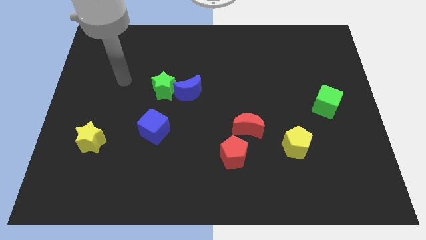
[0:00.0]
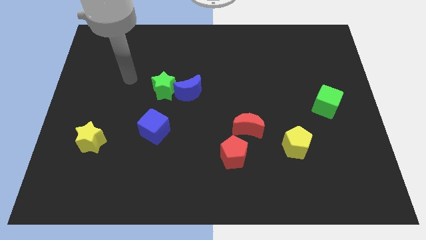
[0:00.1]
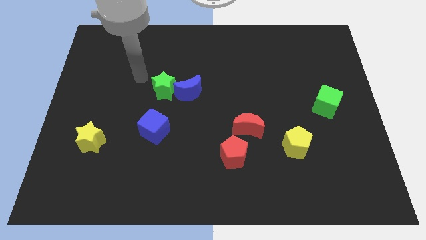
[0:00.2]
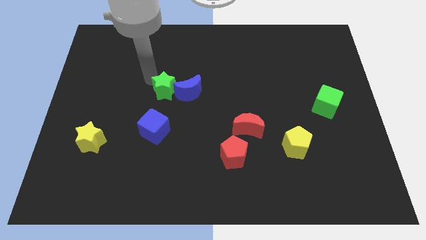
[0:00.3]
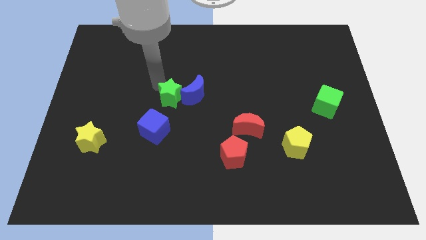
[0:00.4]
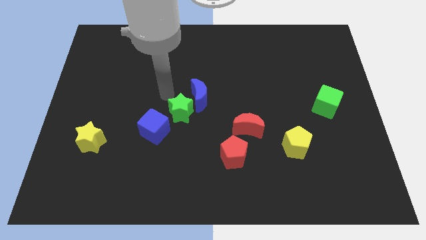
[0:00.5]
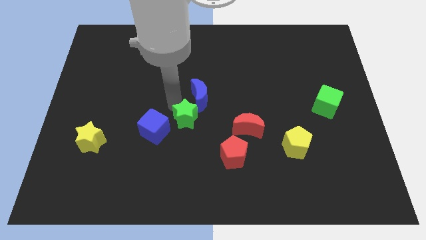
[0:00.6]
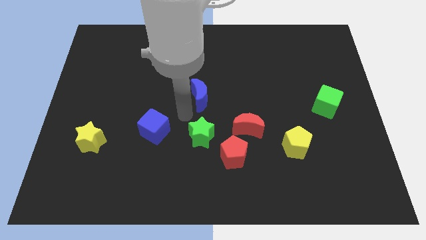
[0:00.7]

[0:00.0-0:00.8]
move the blue moon away from the green star

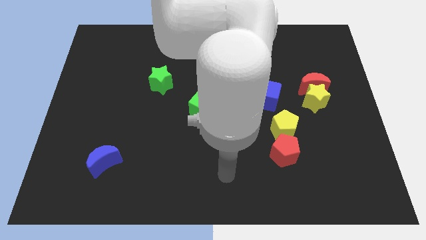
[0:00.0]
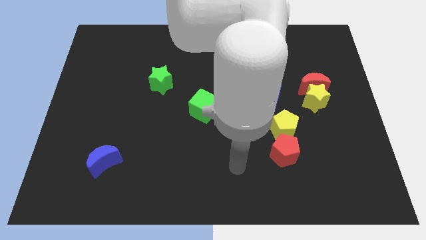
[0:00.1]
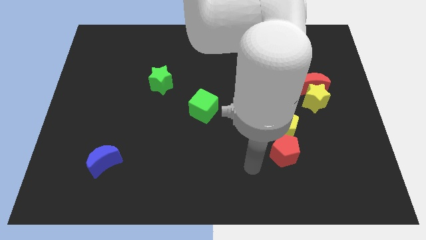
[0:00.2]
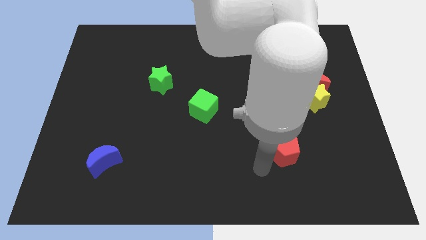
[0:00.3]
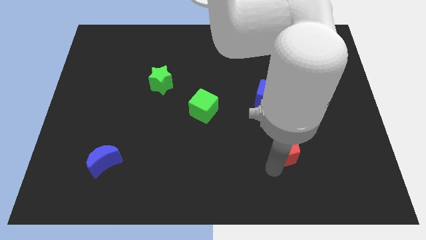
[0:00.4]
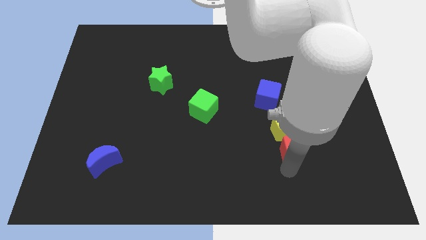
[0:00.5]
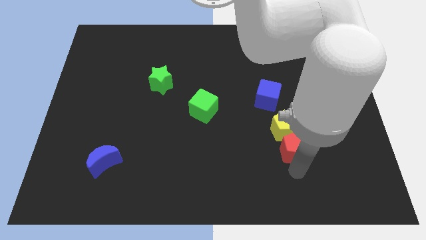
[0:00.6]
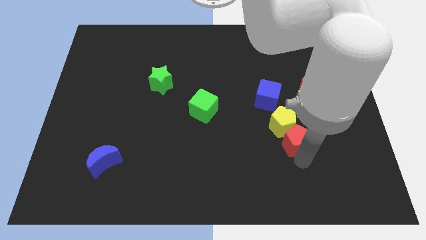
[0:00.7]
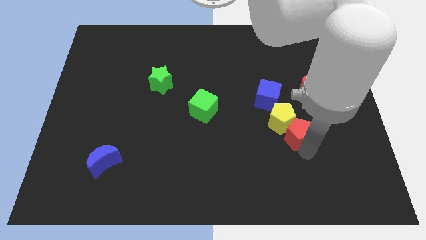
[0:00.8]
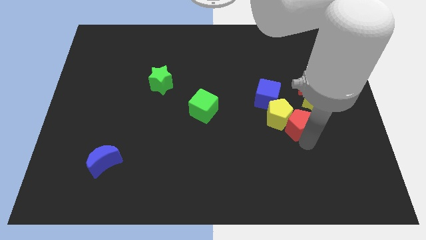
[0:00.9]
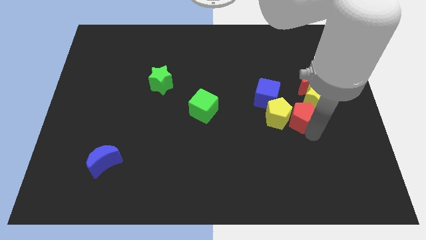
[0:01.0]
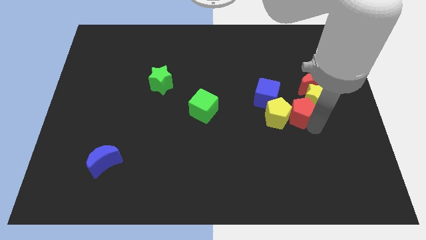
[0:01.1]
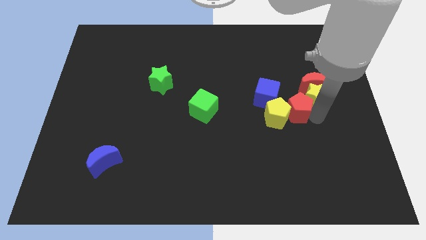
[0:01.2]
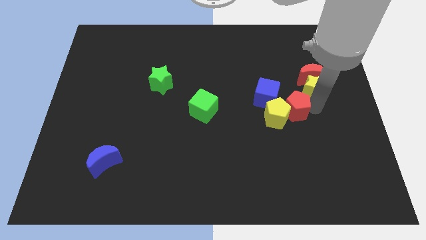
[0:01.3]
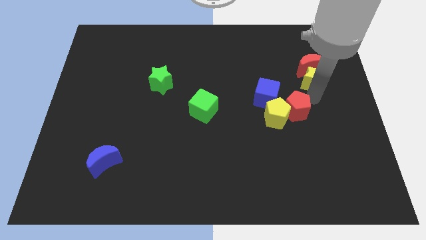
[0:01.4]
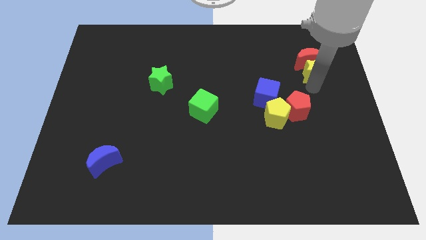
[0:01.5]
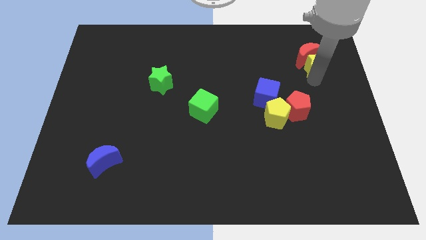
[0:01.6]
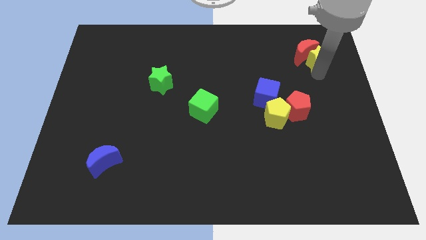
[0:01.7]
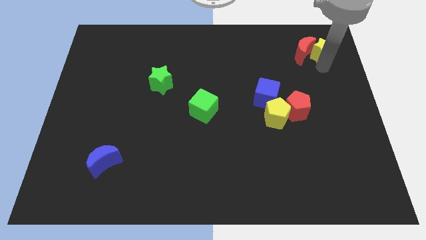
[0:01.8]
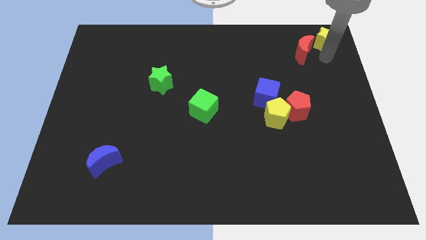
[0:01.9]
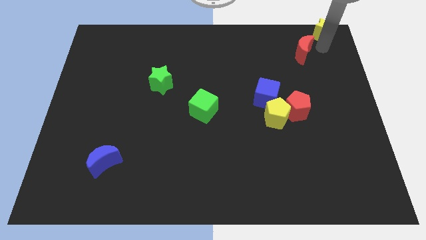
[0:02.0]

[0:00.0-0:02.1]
pull the red moon apart from the yellow star

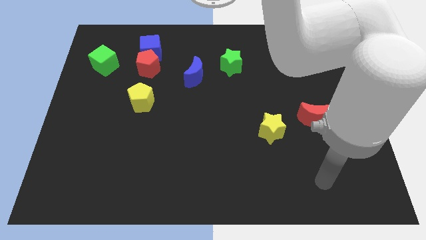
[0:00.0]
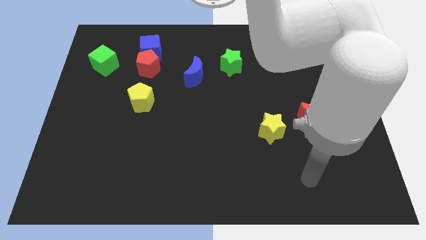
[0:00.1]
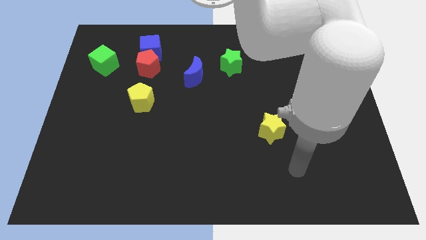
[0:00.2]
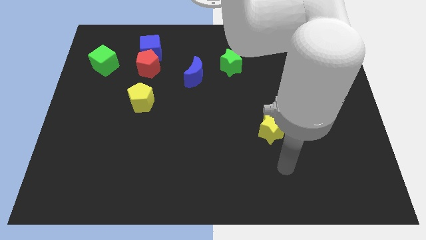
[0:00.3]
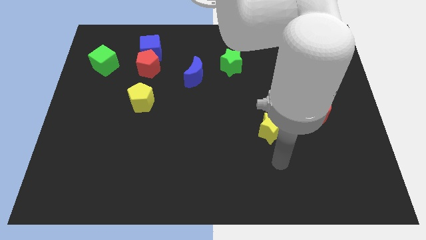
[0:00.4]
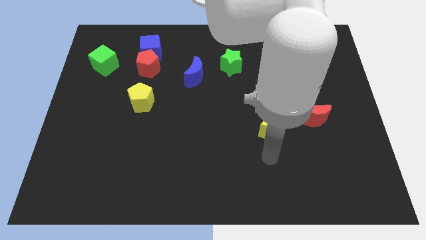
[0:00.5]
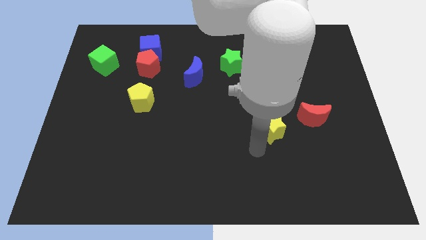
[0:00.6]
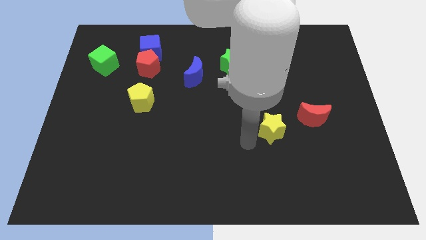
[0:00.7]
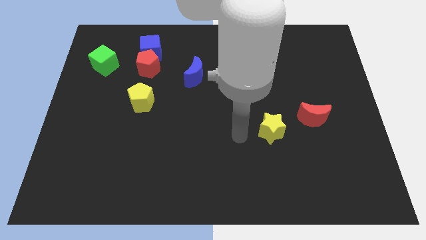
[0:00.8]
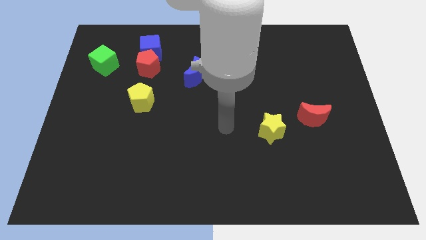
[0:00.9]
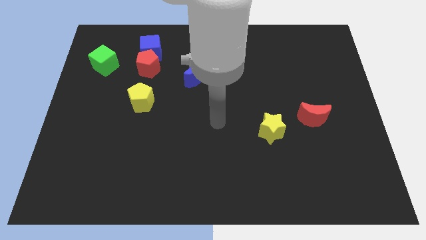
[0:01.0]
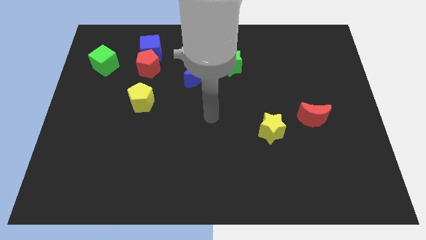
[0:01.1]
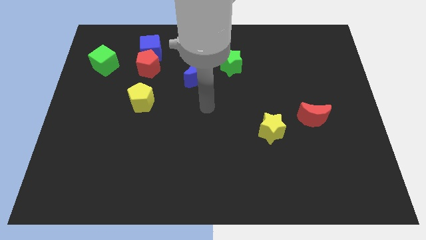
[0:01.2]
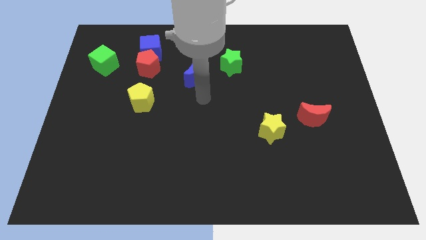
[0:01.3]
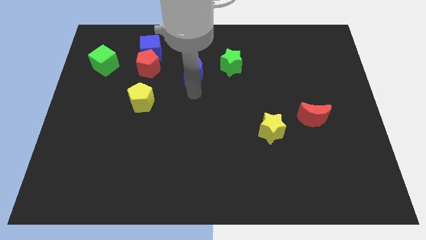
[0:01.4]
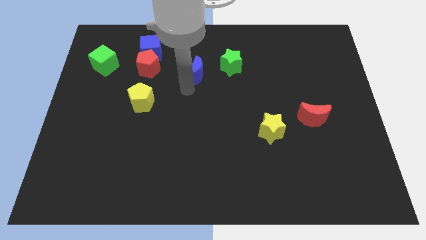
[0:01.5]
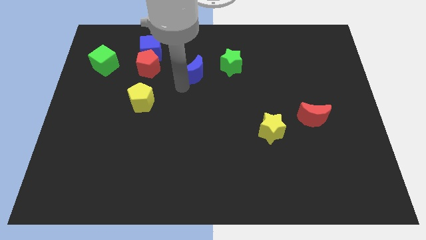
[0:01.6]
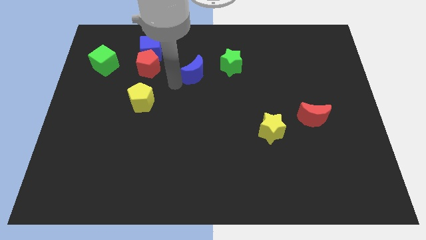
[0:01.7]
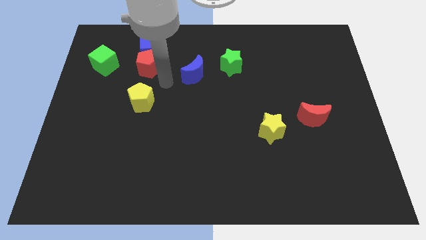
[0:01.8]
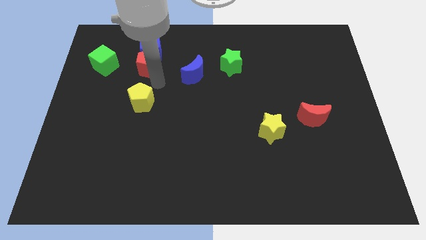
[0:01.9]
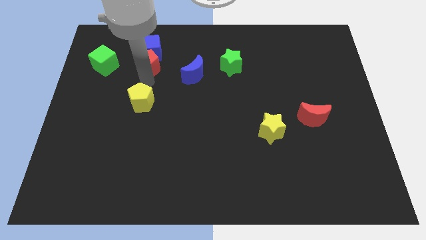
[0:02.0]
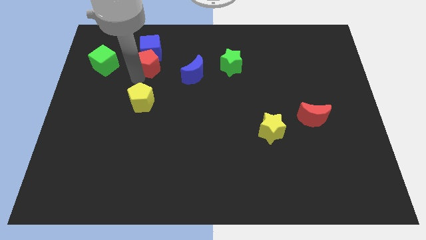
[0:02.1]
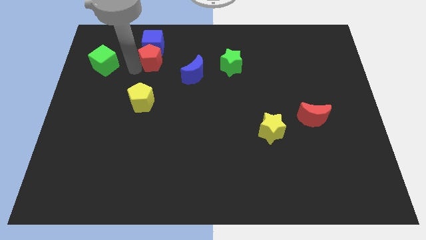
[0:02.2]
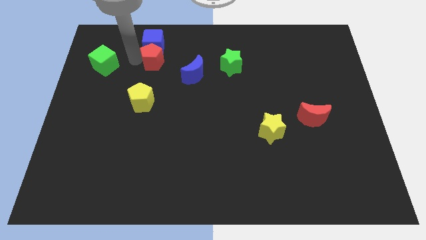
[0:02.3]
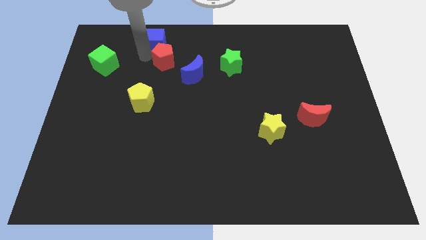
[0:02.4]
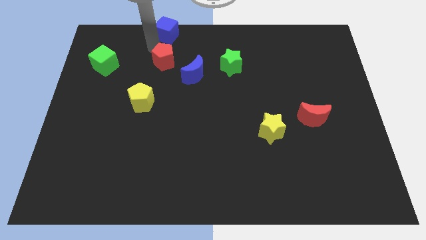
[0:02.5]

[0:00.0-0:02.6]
pull the red pentagon apart from the blue cube

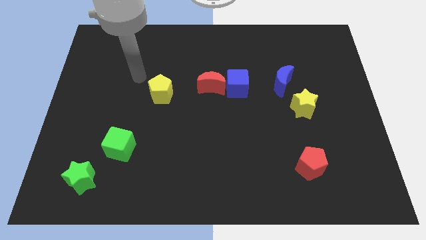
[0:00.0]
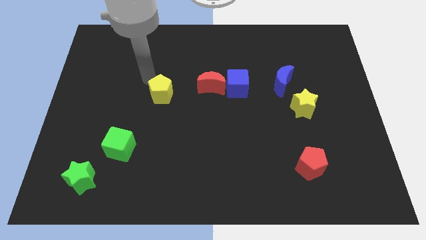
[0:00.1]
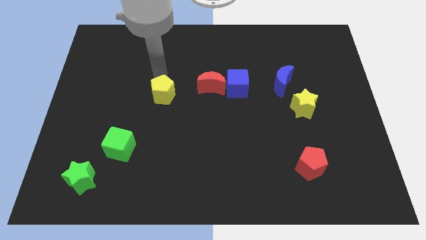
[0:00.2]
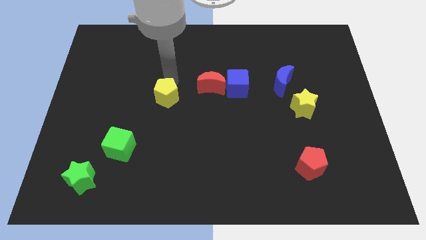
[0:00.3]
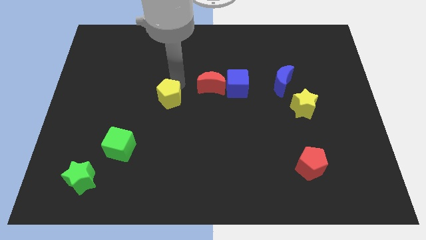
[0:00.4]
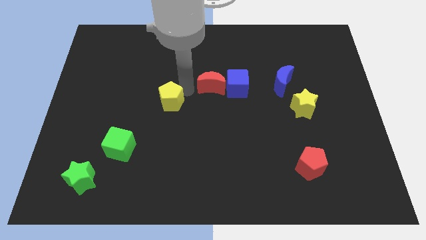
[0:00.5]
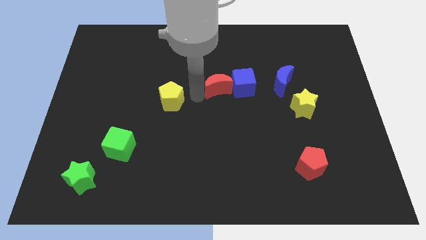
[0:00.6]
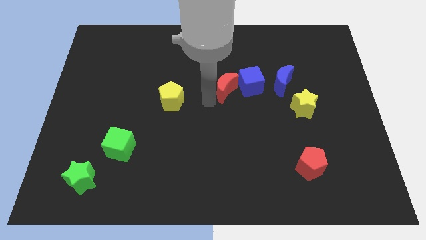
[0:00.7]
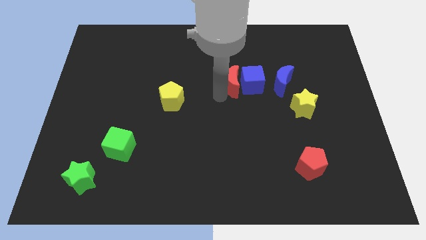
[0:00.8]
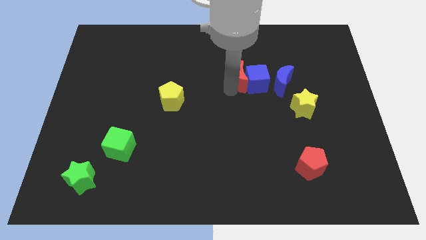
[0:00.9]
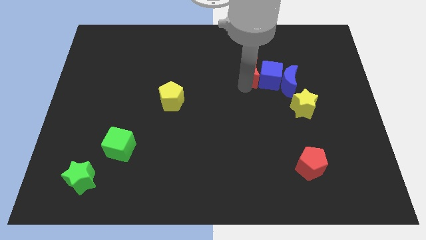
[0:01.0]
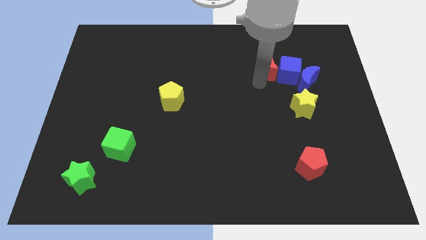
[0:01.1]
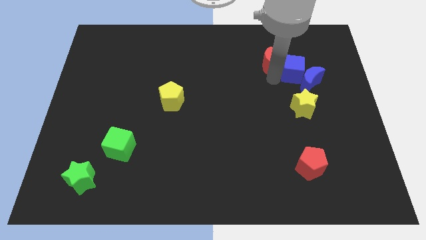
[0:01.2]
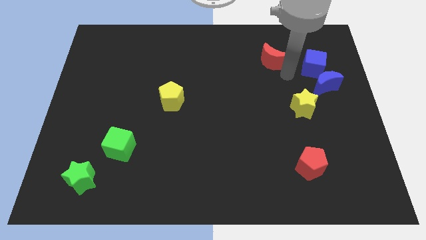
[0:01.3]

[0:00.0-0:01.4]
pull the red moon apart from the blue cube

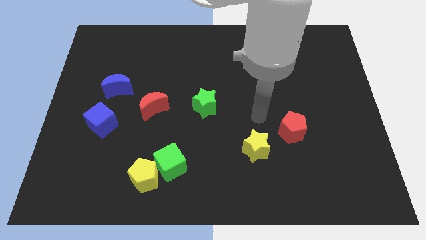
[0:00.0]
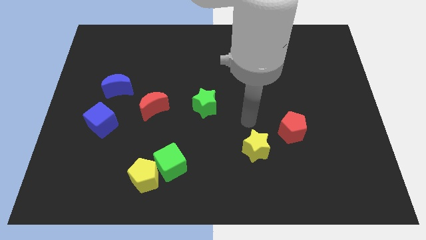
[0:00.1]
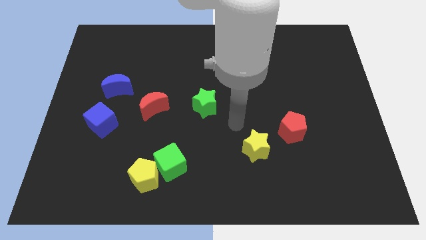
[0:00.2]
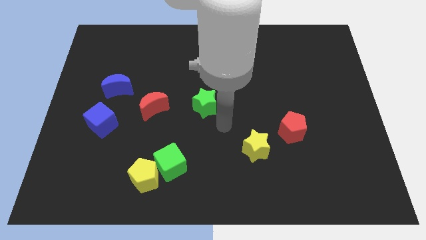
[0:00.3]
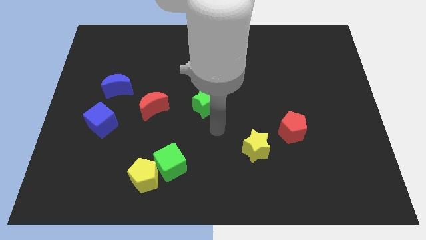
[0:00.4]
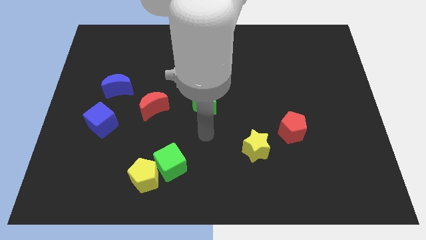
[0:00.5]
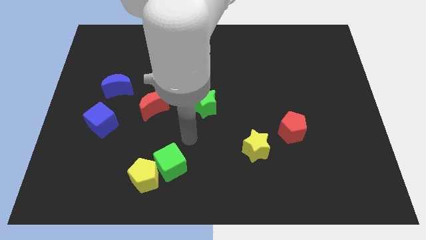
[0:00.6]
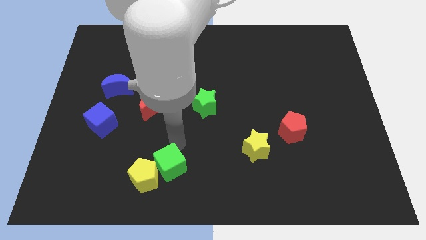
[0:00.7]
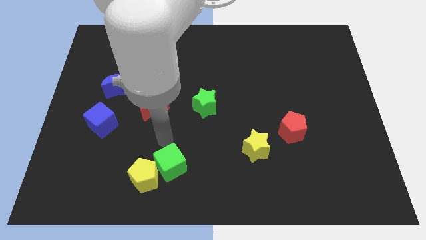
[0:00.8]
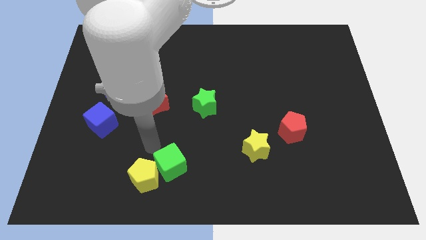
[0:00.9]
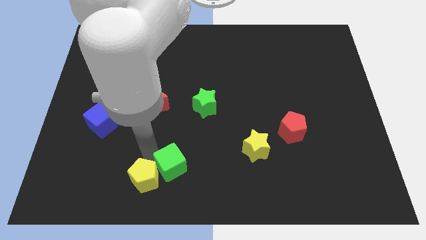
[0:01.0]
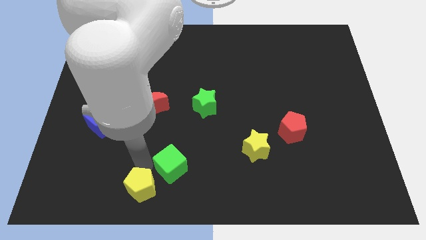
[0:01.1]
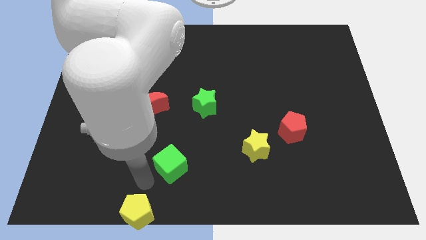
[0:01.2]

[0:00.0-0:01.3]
pull the green cube apart from the yellow pentagon

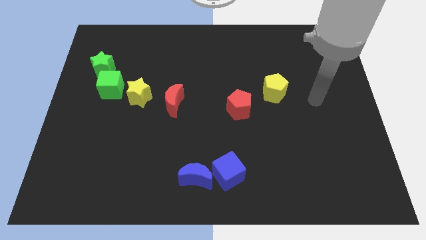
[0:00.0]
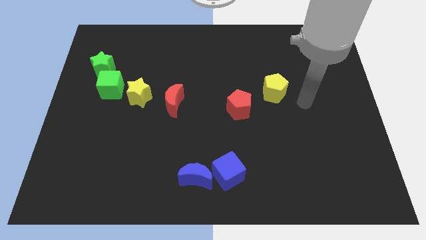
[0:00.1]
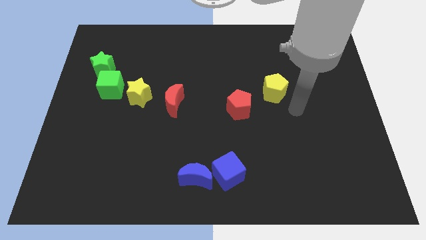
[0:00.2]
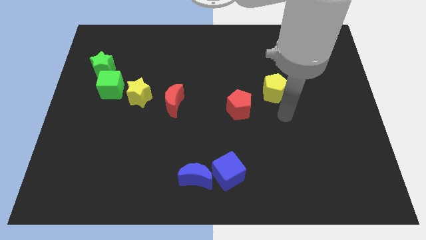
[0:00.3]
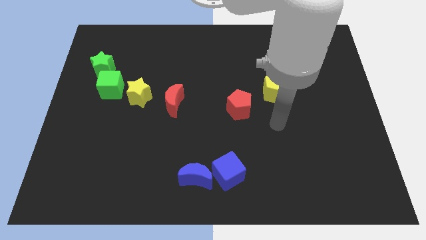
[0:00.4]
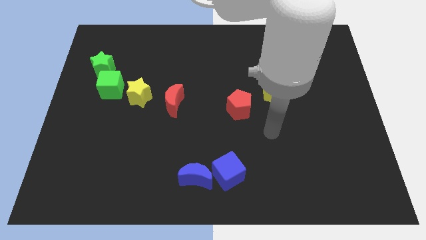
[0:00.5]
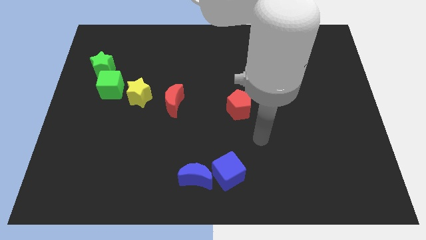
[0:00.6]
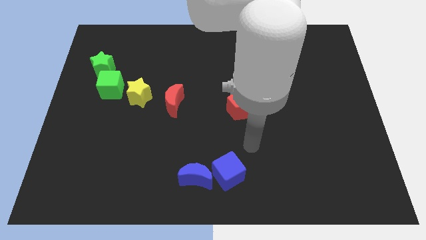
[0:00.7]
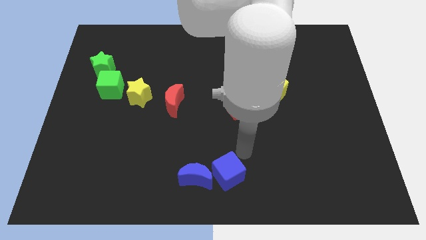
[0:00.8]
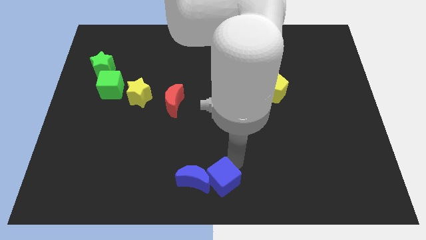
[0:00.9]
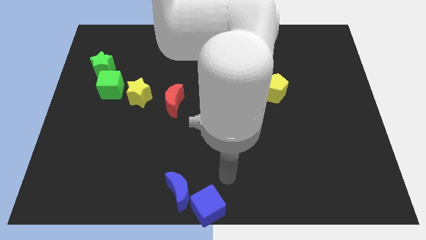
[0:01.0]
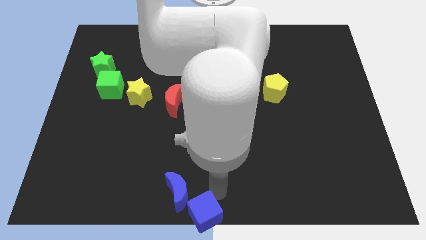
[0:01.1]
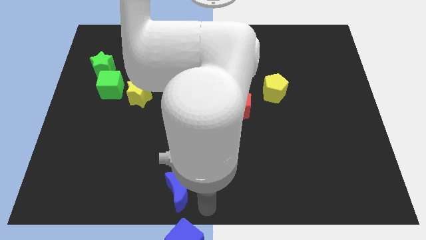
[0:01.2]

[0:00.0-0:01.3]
move the blue moon away from the blue cube
